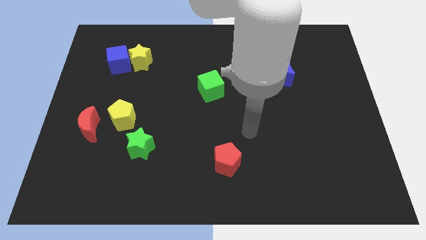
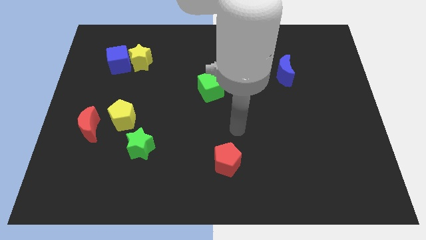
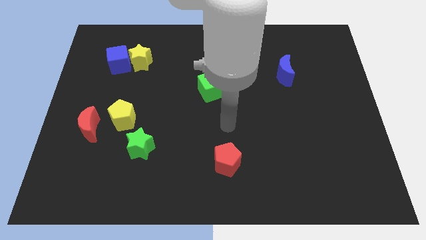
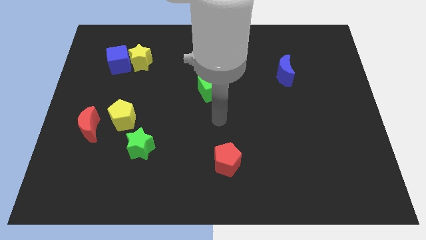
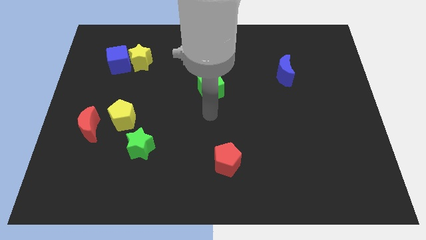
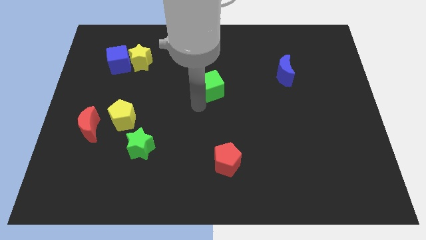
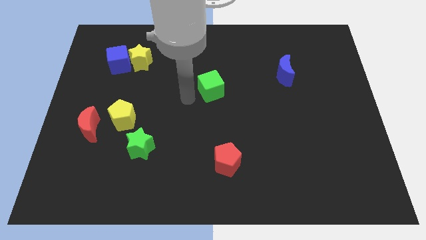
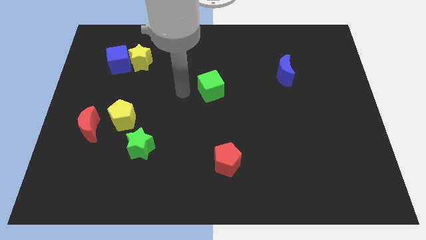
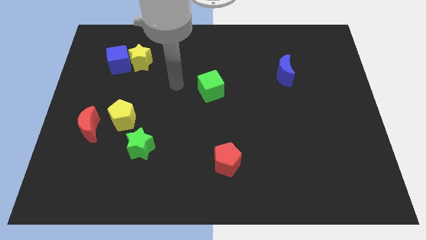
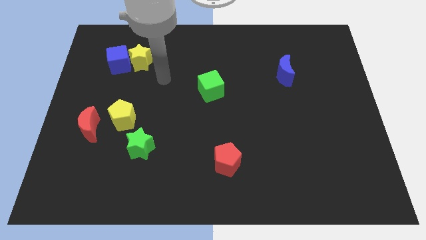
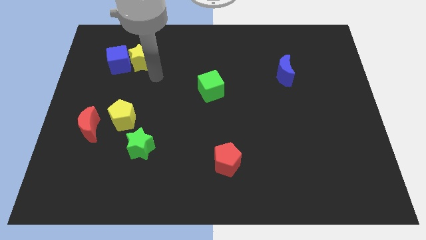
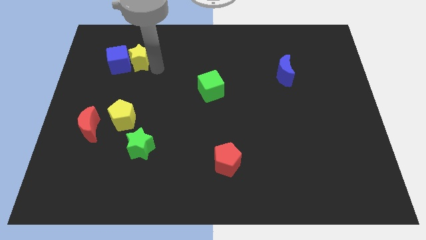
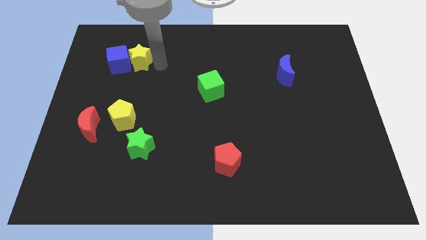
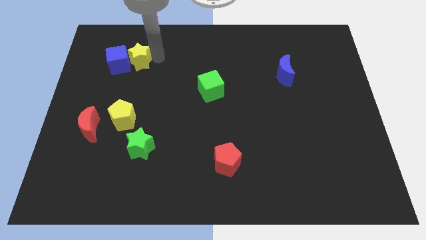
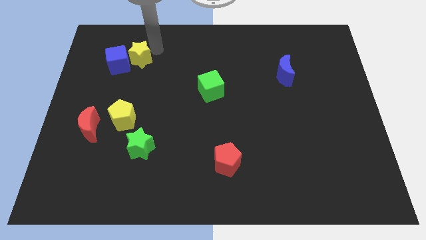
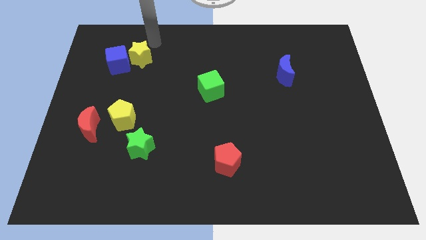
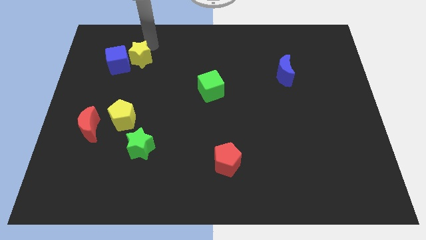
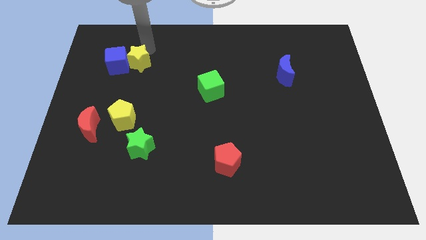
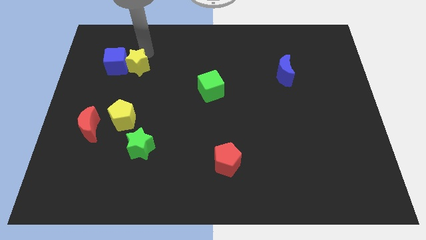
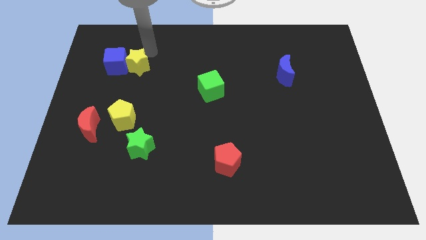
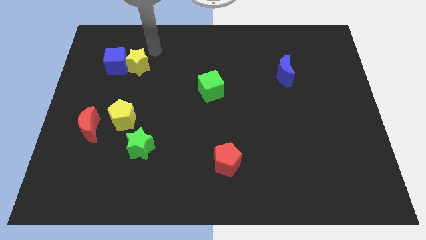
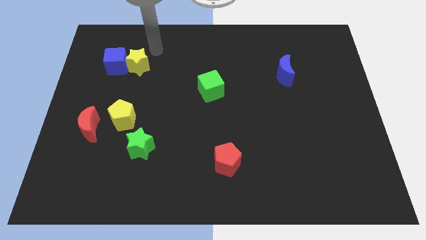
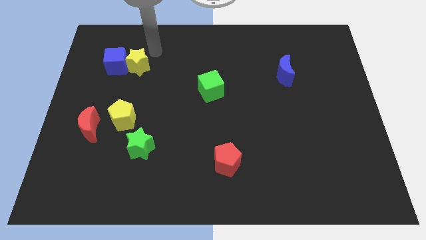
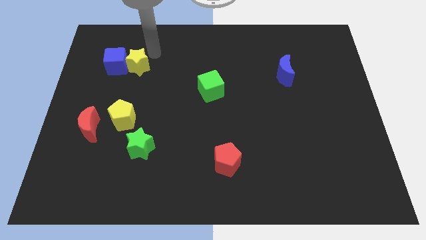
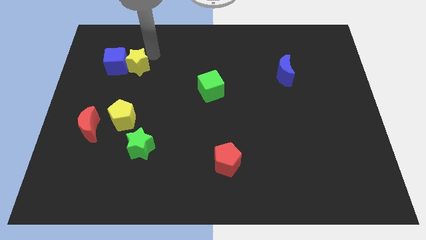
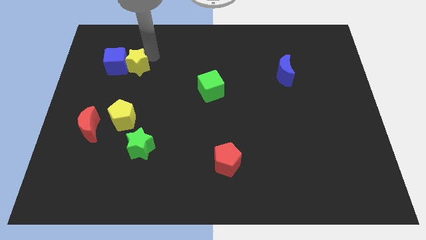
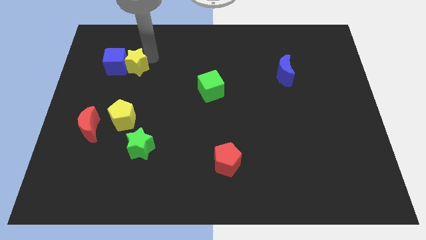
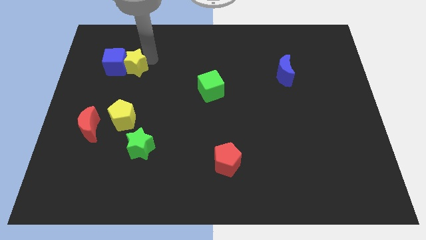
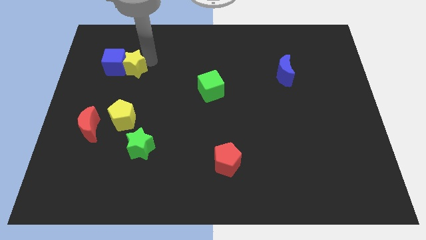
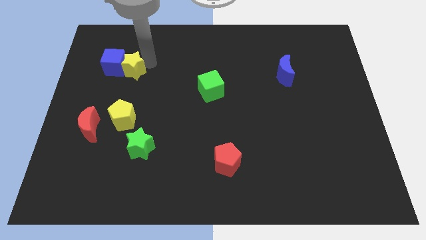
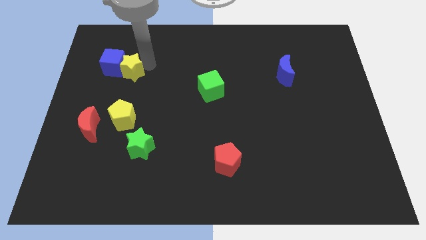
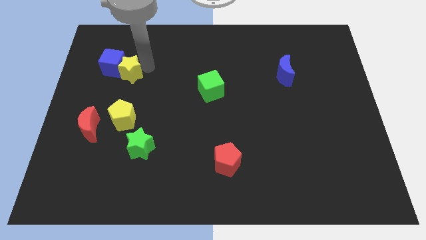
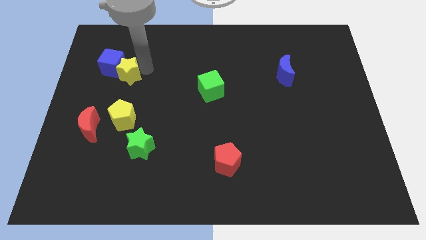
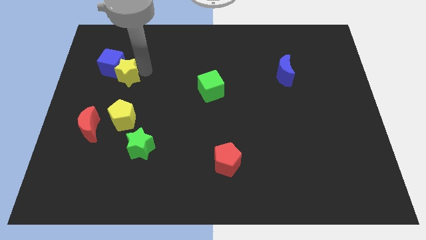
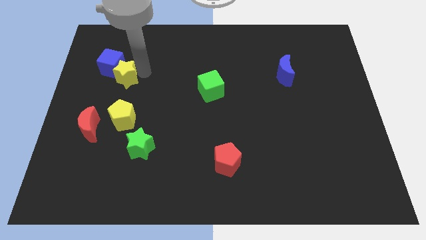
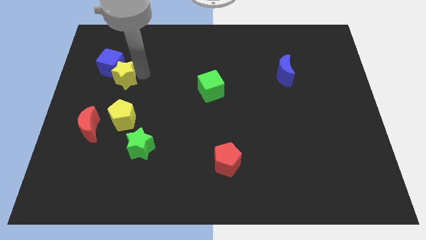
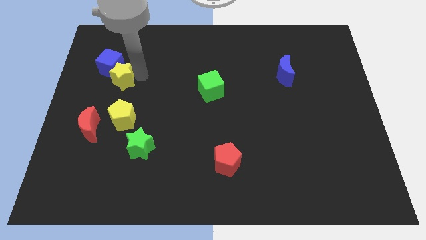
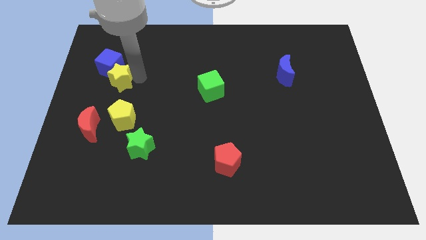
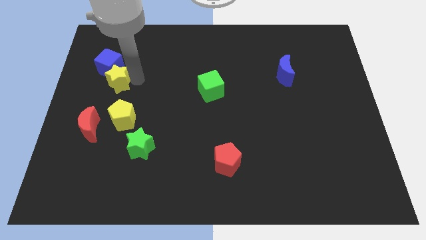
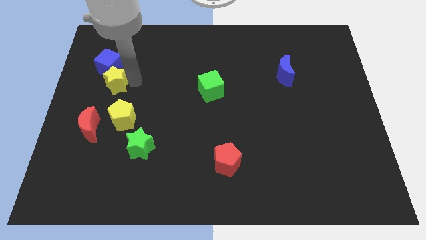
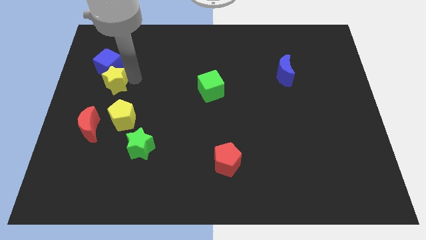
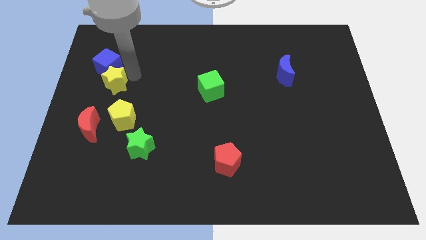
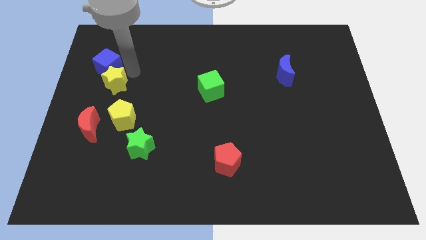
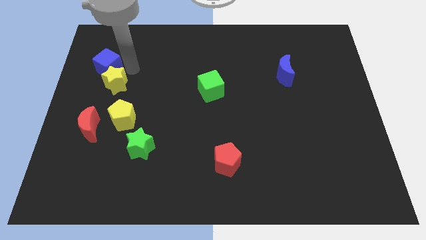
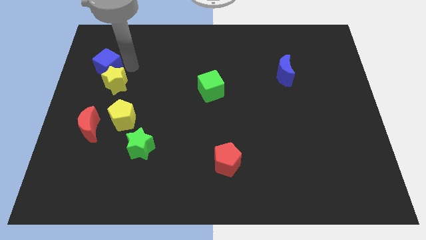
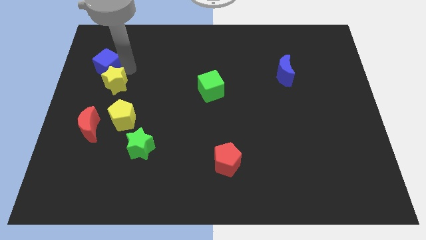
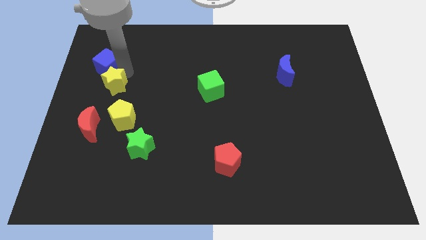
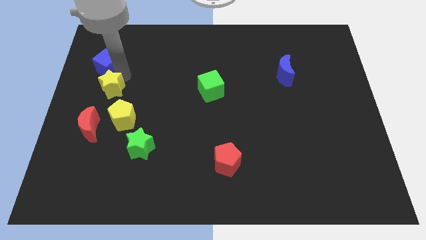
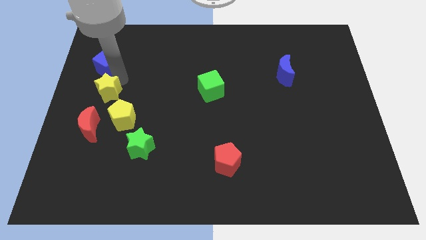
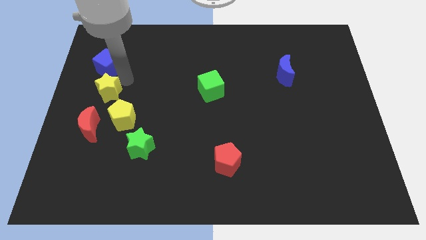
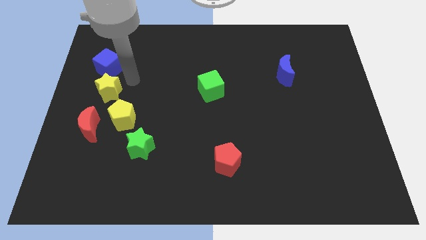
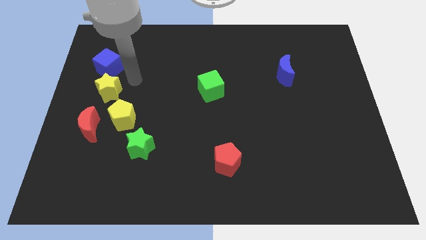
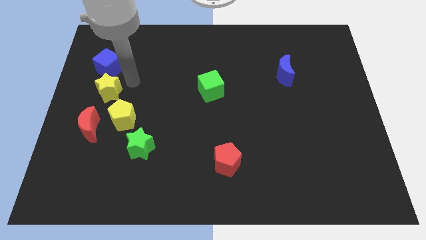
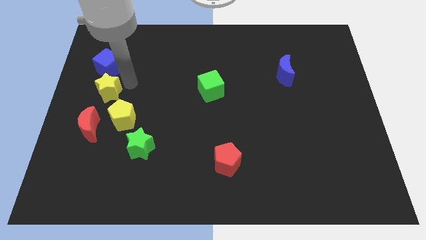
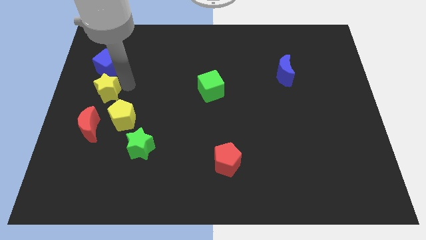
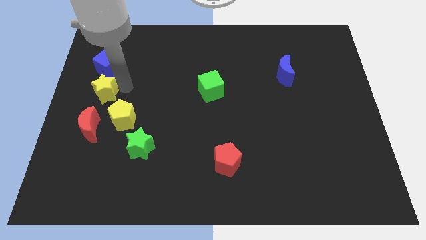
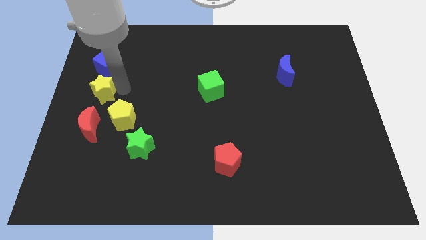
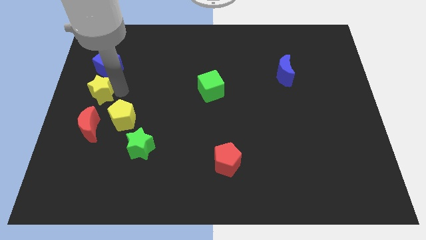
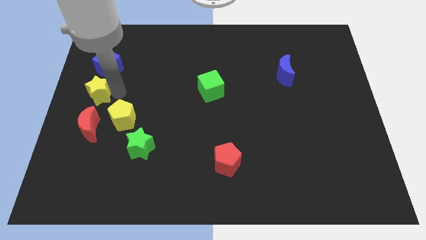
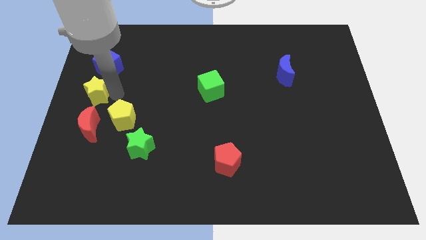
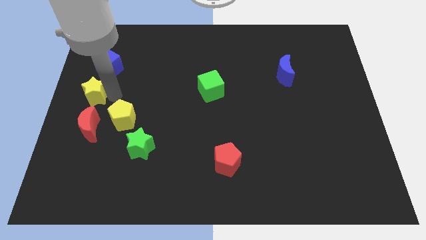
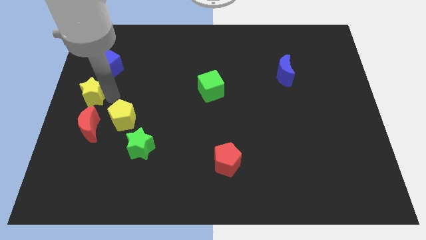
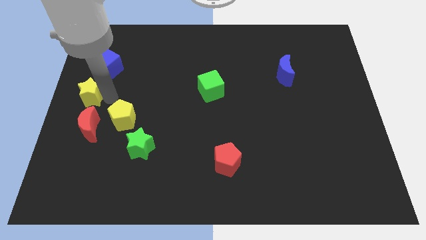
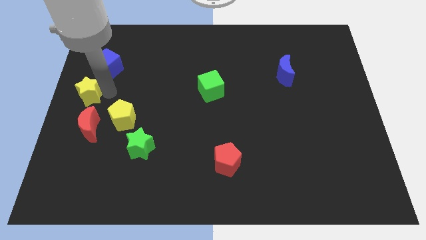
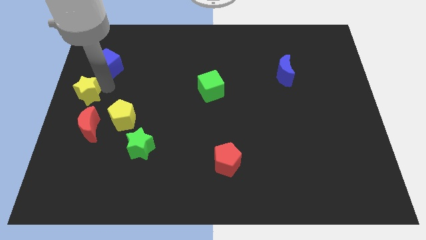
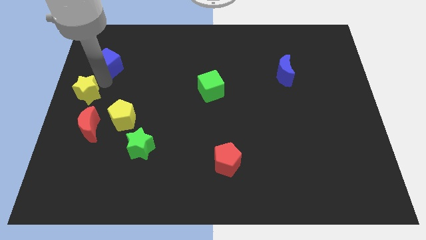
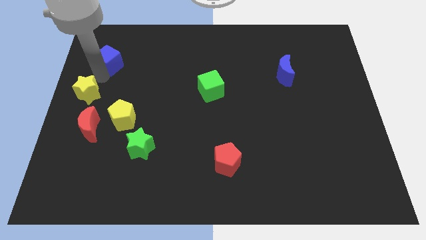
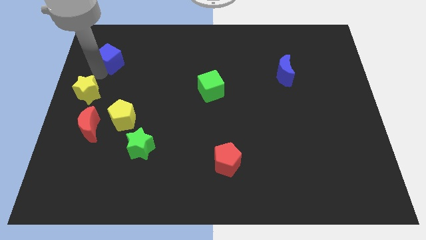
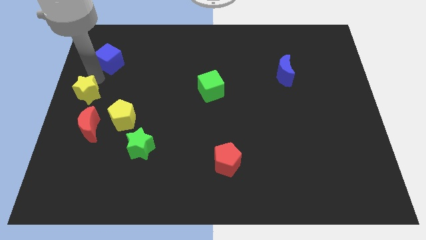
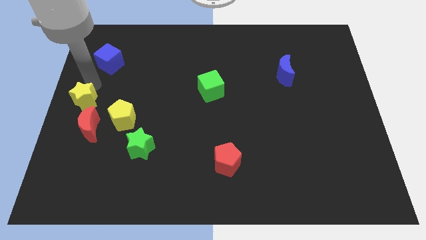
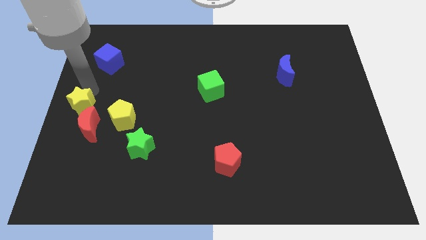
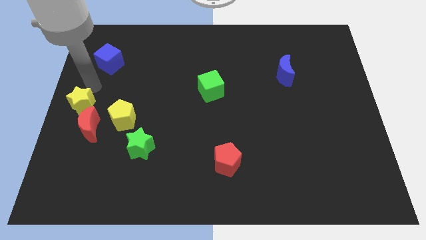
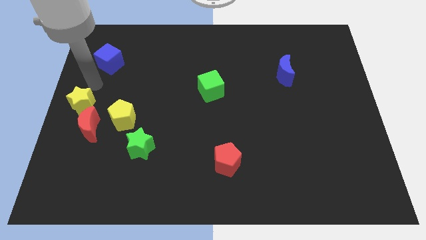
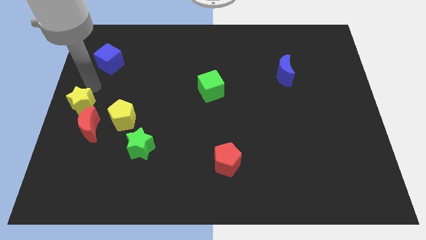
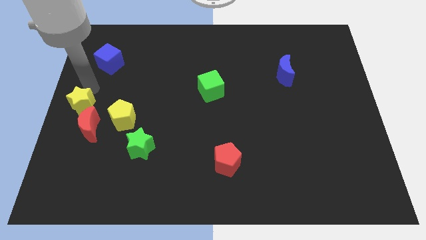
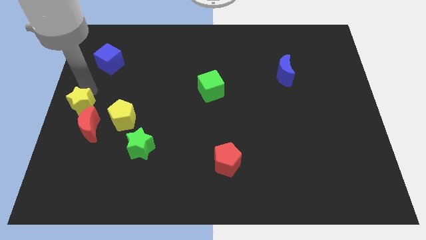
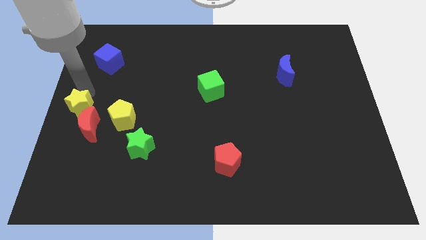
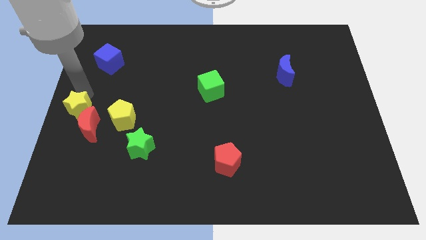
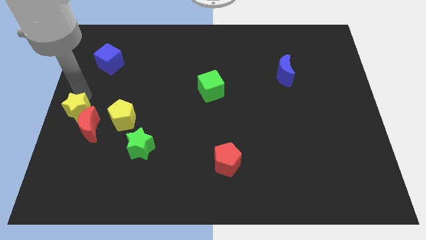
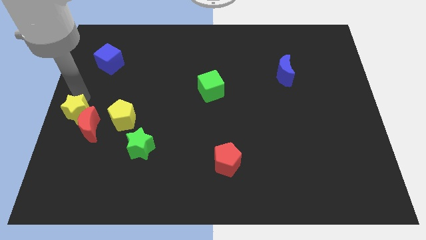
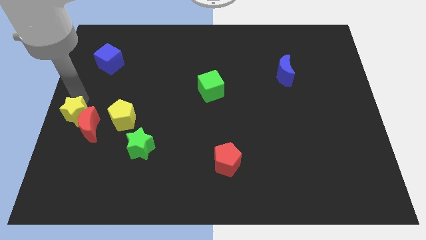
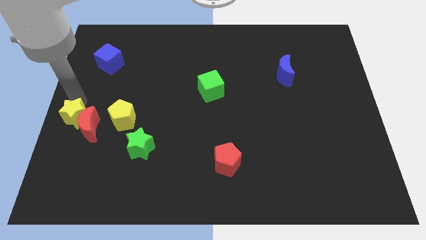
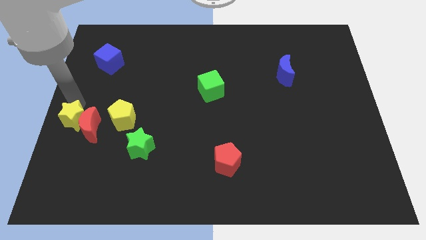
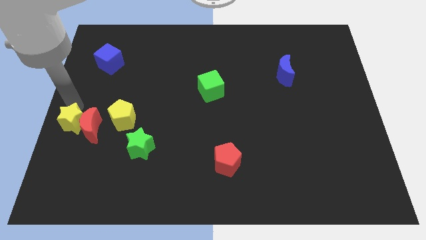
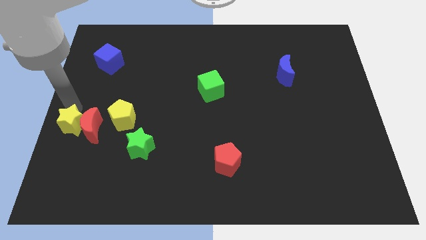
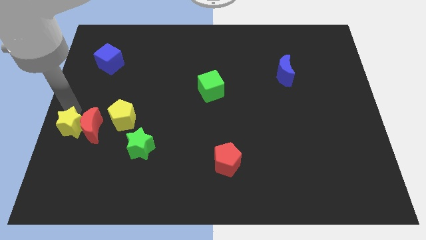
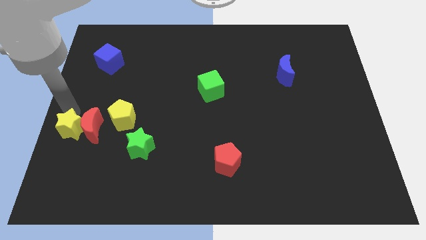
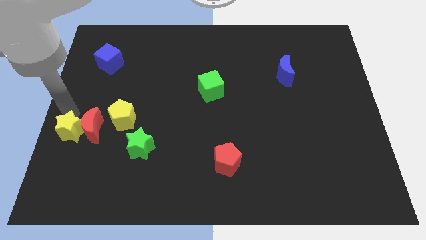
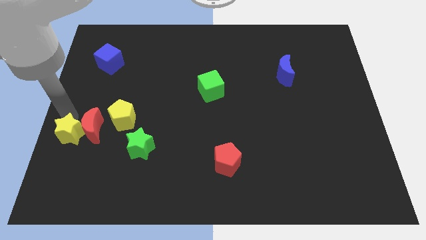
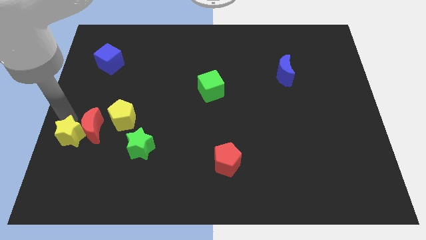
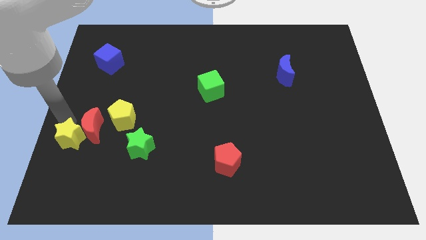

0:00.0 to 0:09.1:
move the yellow star left of the green star
